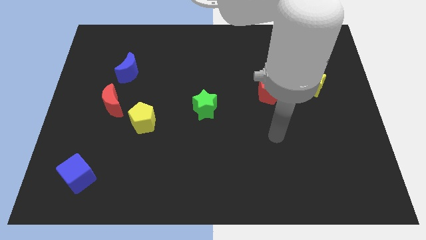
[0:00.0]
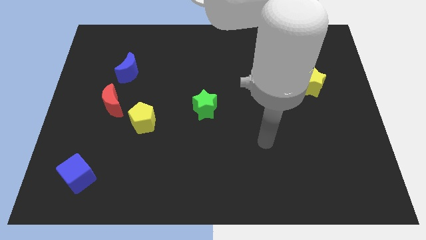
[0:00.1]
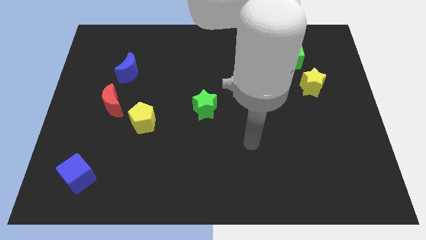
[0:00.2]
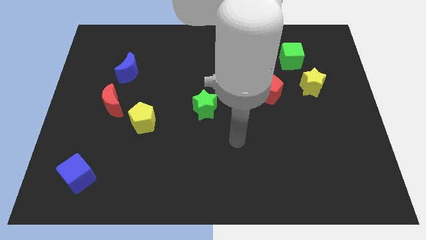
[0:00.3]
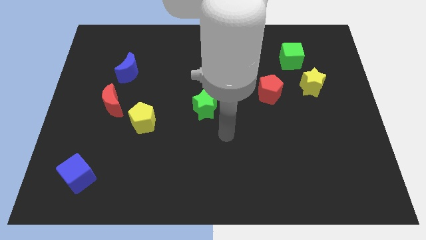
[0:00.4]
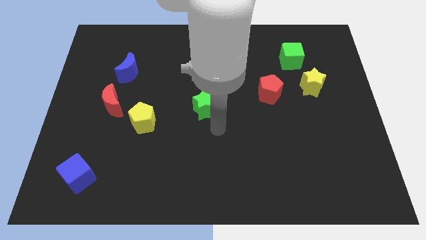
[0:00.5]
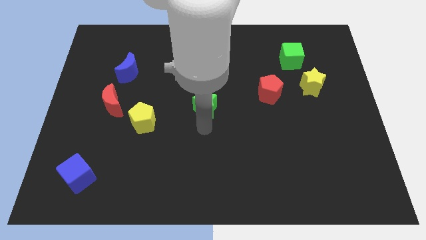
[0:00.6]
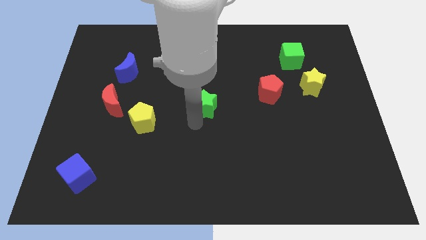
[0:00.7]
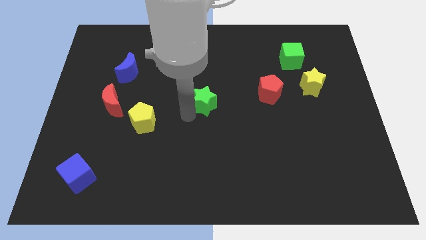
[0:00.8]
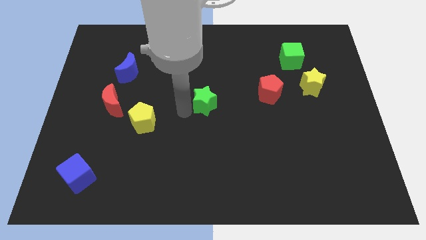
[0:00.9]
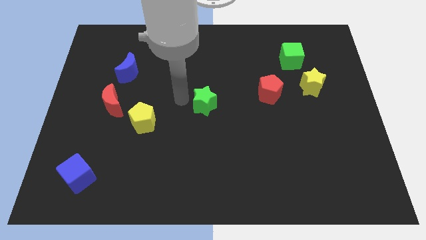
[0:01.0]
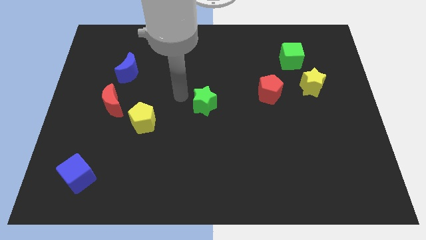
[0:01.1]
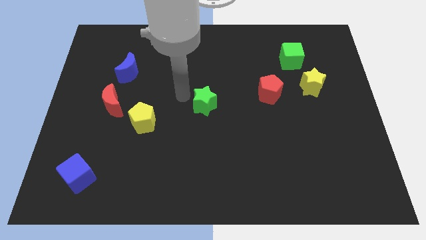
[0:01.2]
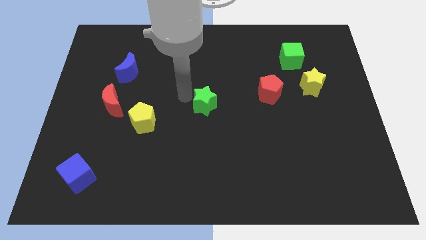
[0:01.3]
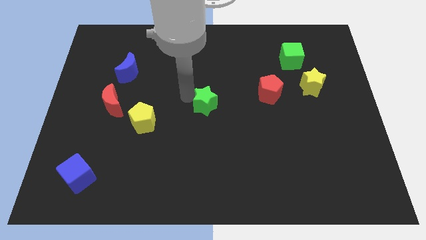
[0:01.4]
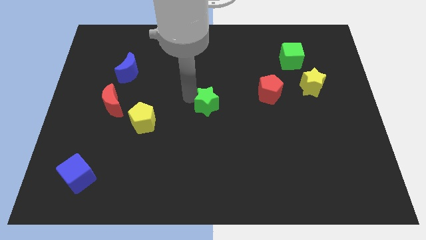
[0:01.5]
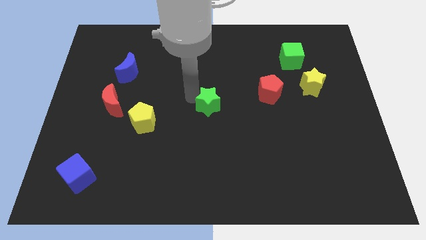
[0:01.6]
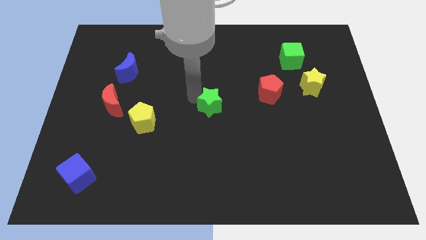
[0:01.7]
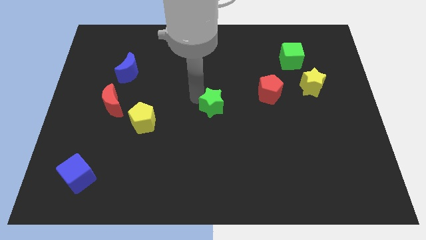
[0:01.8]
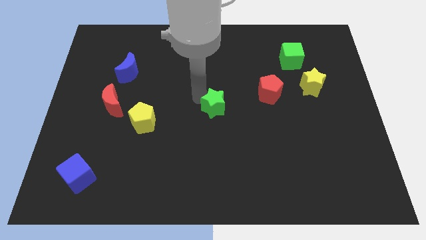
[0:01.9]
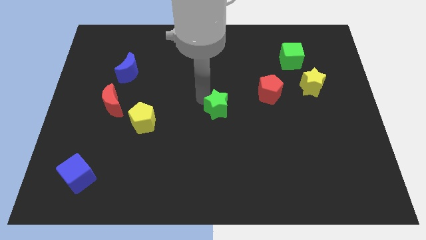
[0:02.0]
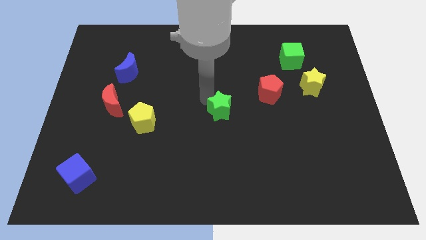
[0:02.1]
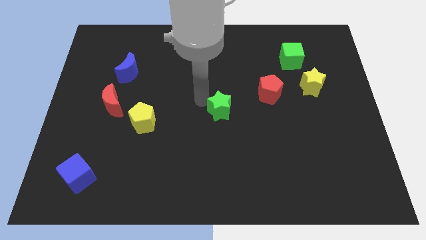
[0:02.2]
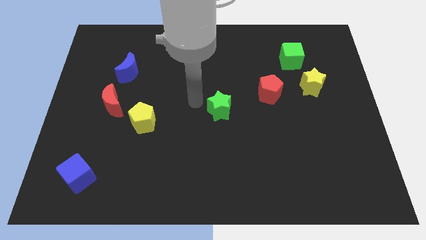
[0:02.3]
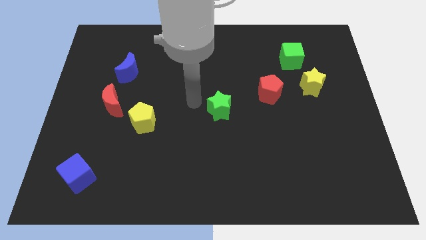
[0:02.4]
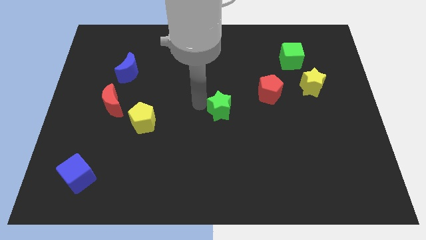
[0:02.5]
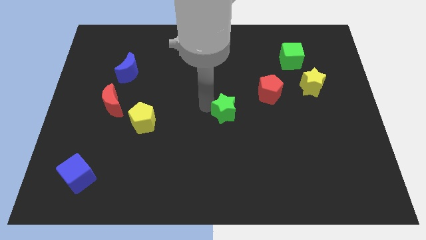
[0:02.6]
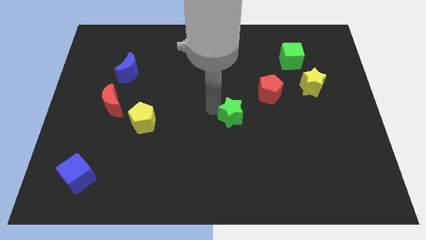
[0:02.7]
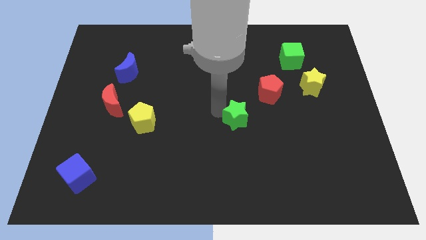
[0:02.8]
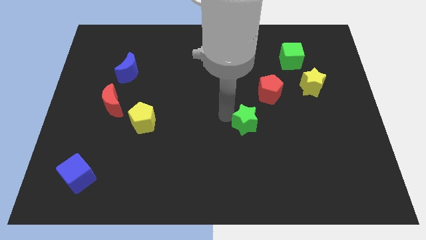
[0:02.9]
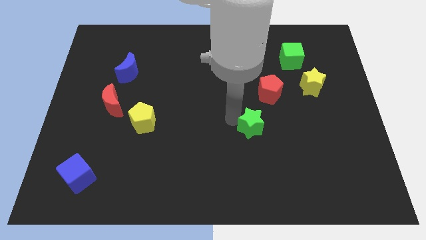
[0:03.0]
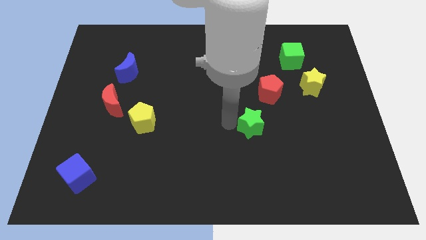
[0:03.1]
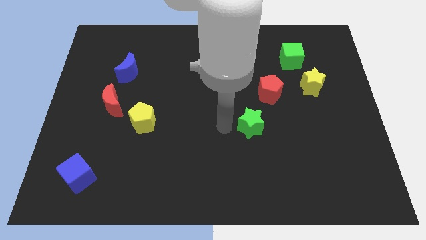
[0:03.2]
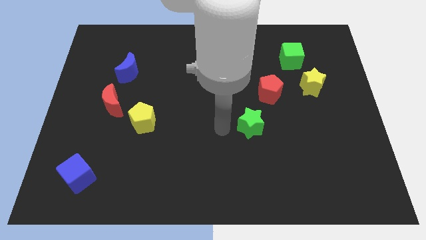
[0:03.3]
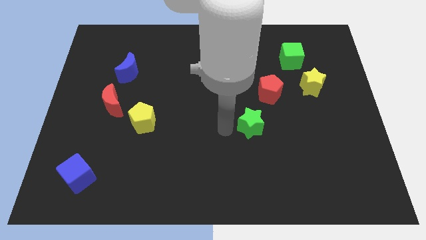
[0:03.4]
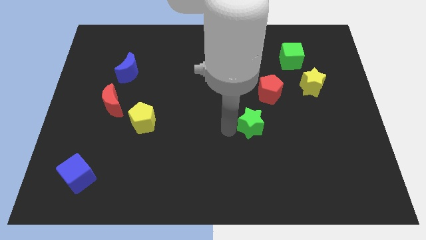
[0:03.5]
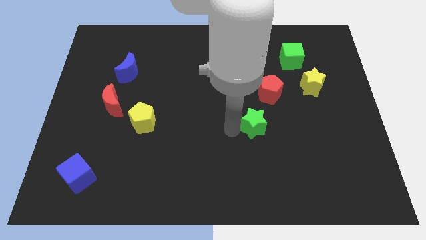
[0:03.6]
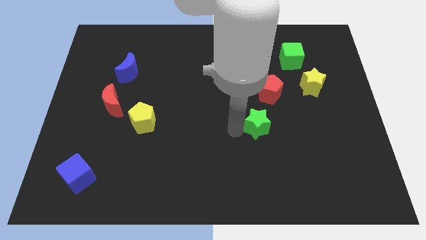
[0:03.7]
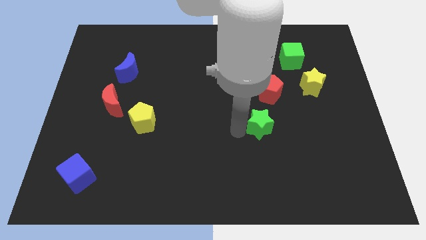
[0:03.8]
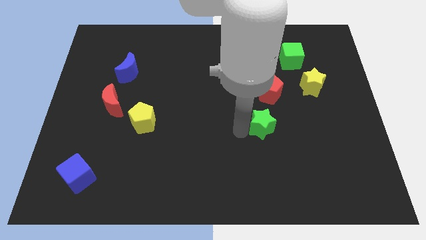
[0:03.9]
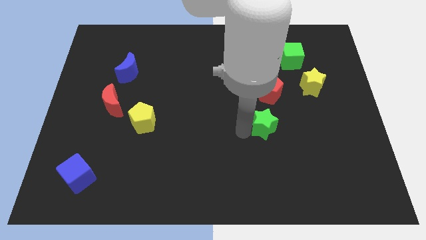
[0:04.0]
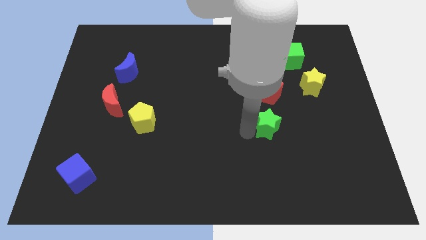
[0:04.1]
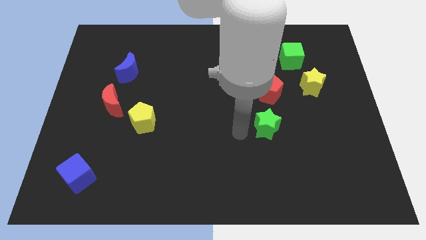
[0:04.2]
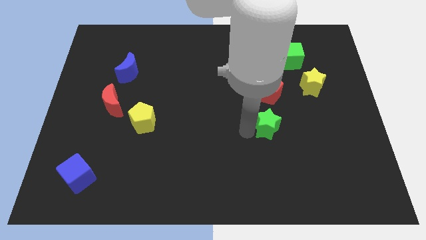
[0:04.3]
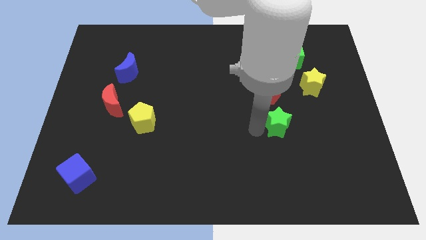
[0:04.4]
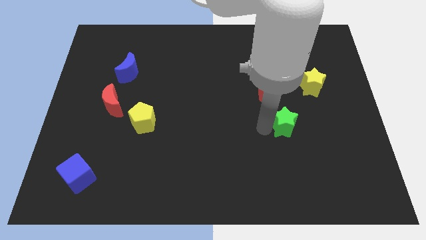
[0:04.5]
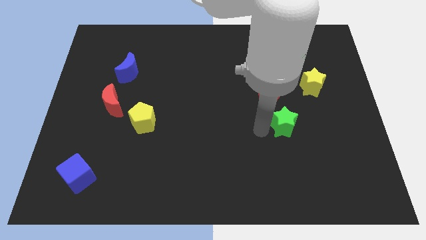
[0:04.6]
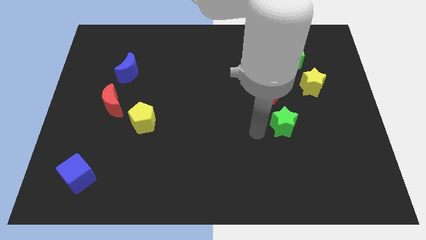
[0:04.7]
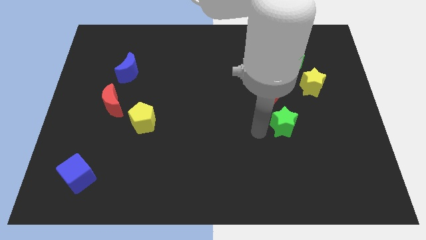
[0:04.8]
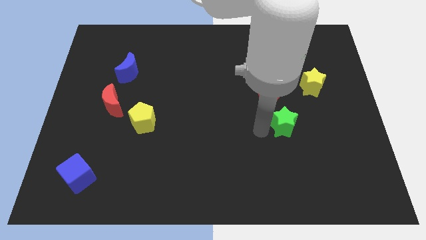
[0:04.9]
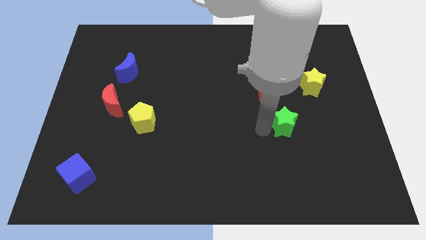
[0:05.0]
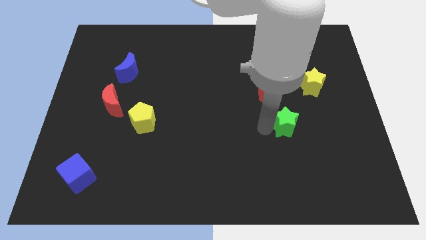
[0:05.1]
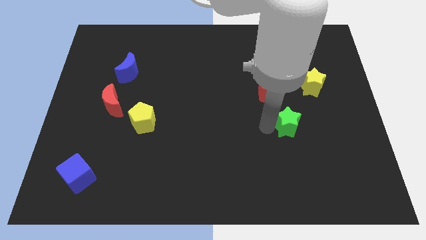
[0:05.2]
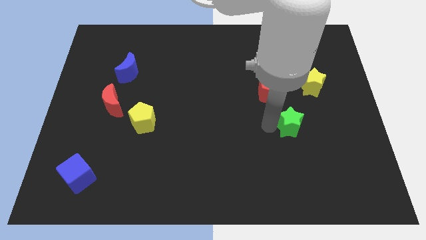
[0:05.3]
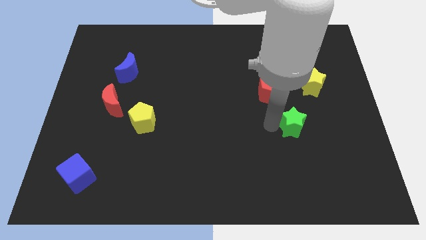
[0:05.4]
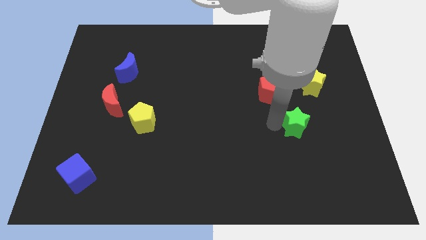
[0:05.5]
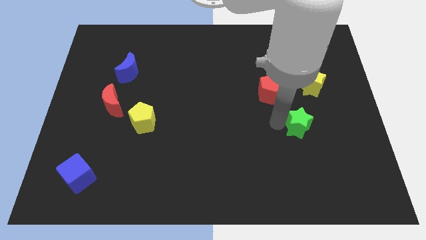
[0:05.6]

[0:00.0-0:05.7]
push the green star below the yellow star

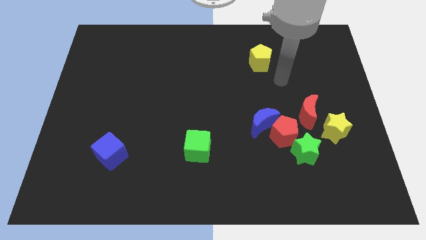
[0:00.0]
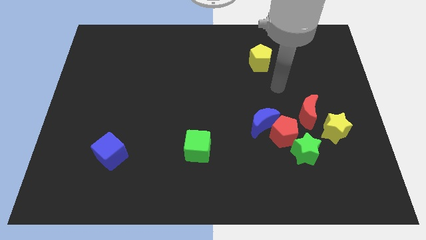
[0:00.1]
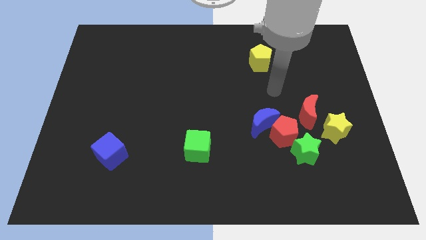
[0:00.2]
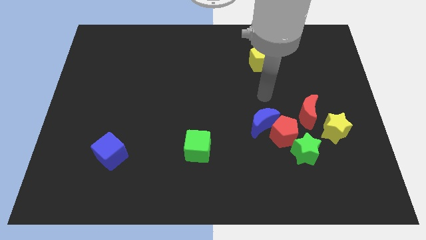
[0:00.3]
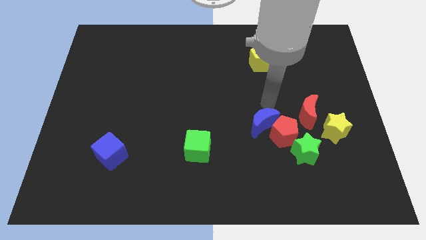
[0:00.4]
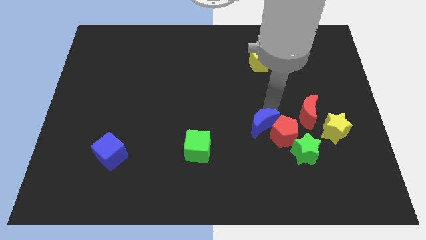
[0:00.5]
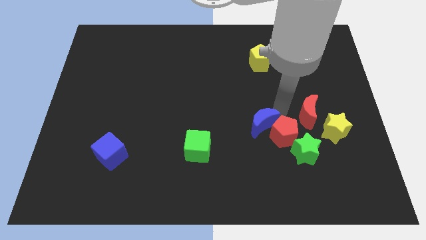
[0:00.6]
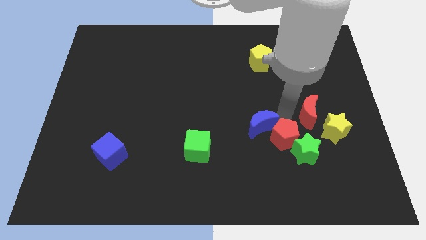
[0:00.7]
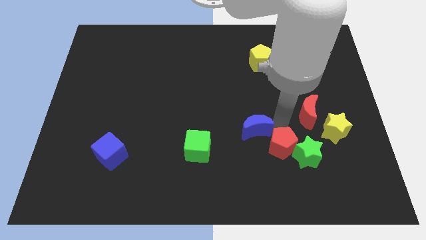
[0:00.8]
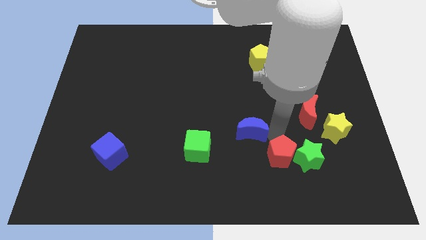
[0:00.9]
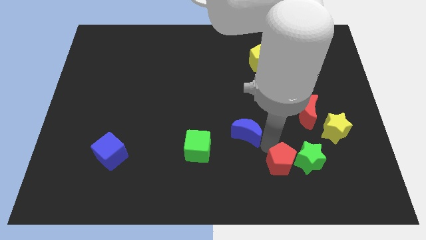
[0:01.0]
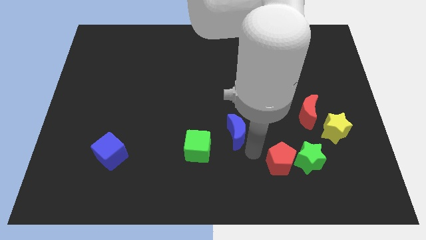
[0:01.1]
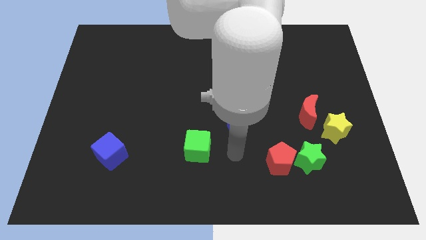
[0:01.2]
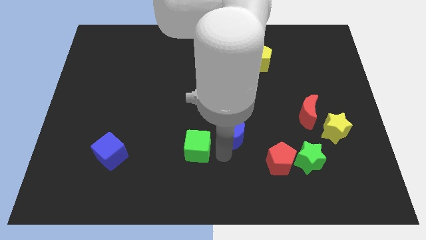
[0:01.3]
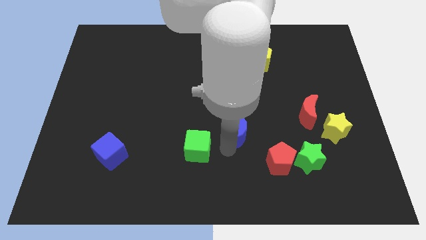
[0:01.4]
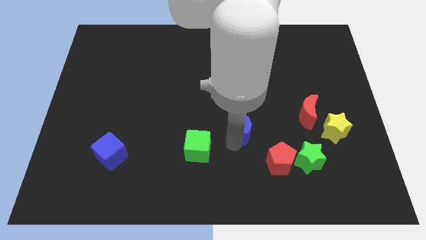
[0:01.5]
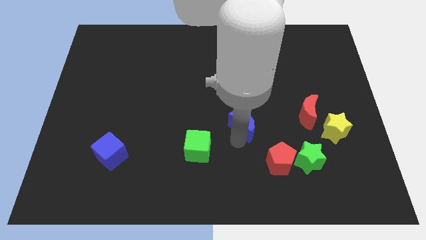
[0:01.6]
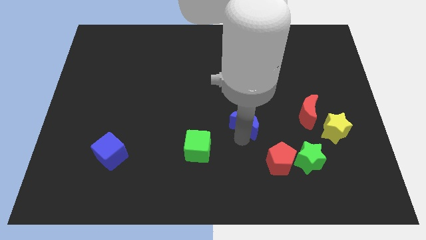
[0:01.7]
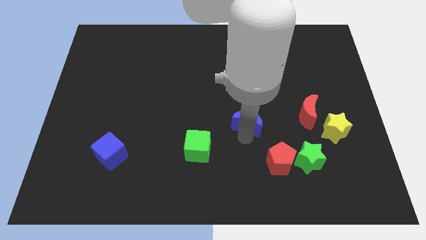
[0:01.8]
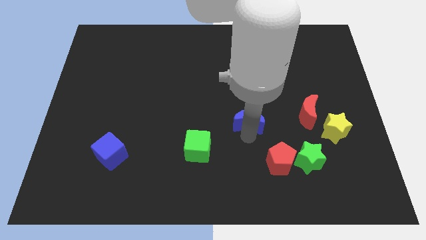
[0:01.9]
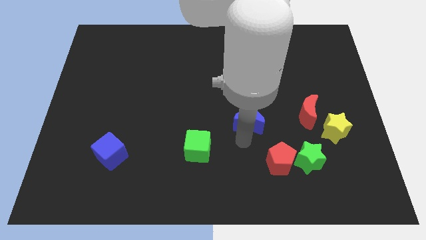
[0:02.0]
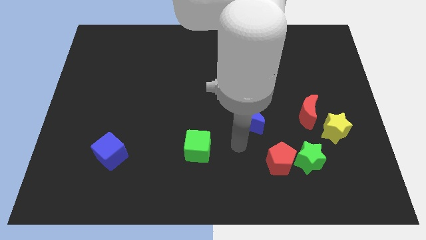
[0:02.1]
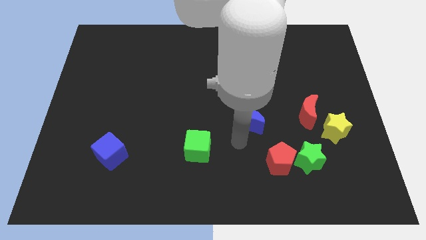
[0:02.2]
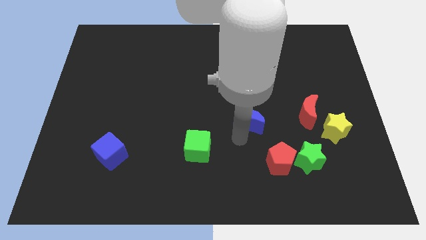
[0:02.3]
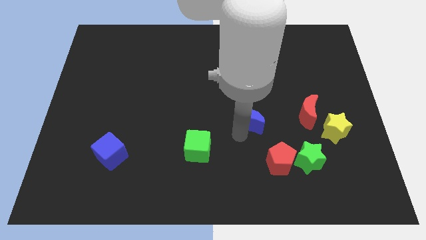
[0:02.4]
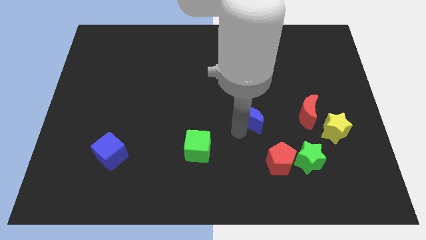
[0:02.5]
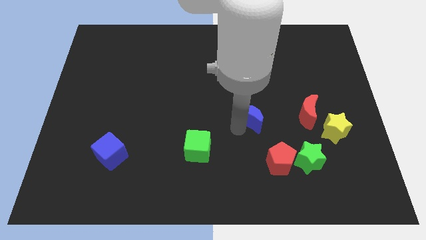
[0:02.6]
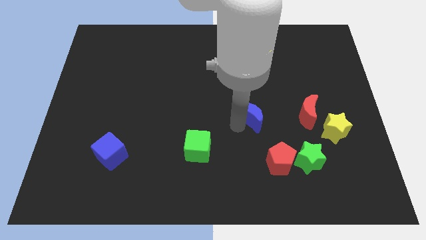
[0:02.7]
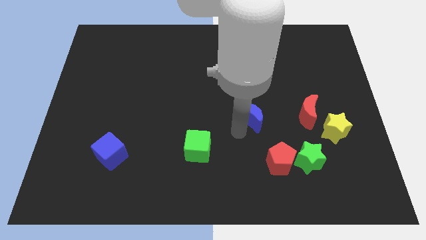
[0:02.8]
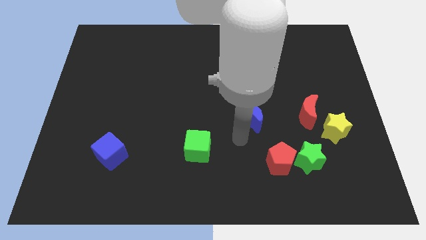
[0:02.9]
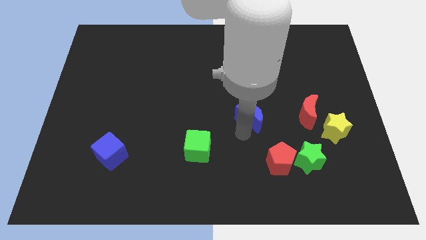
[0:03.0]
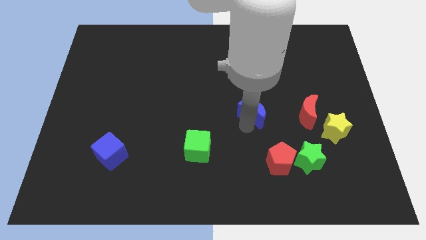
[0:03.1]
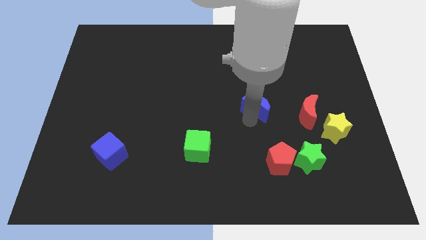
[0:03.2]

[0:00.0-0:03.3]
move the blue moon to the bottom side of the yellow pentagon
